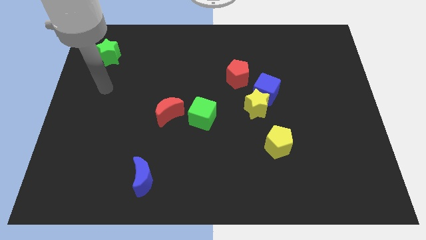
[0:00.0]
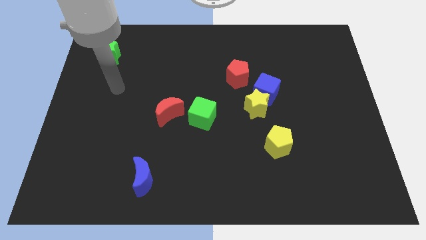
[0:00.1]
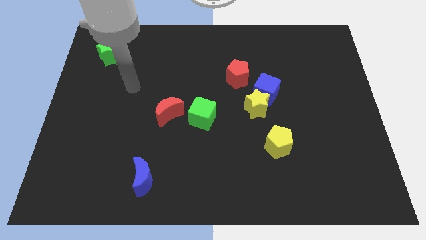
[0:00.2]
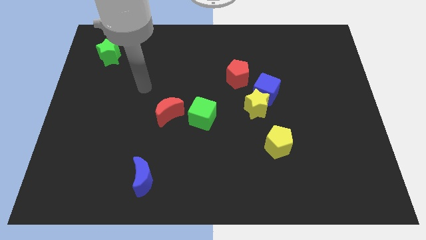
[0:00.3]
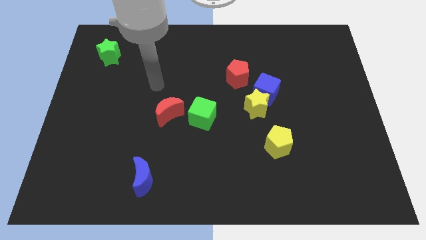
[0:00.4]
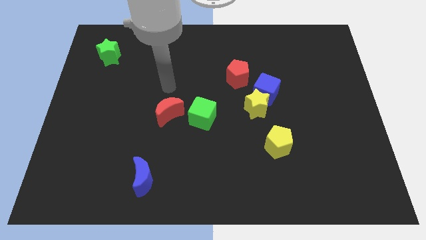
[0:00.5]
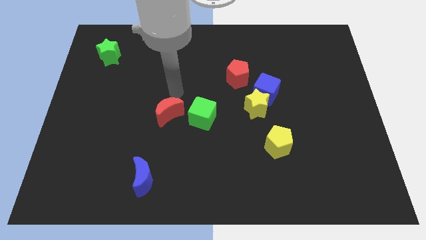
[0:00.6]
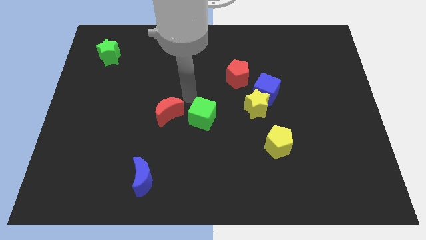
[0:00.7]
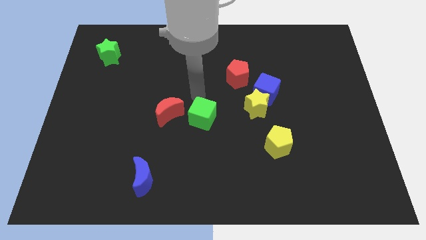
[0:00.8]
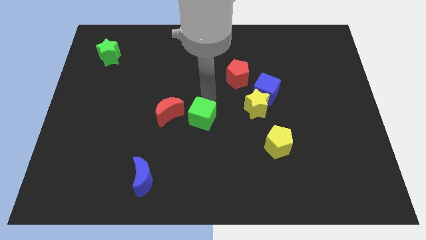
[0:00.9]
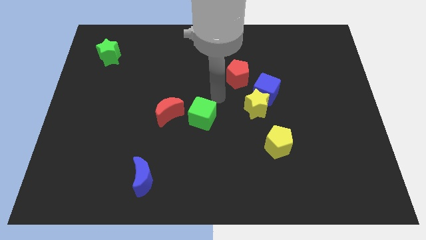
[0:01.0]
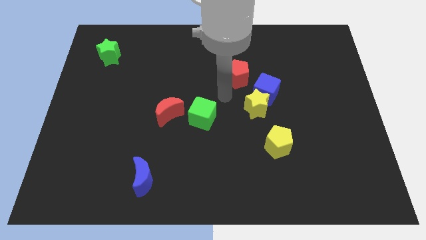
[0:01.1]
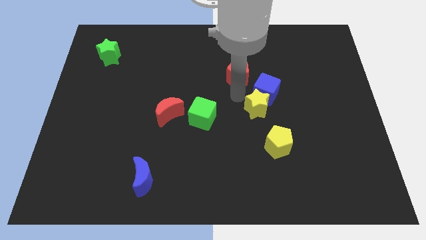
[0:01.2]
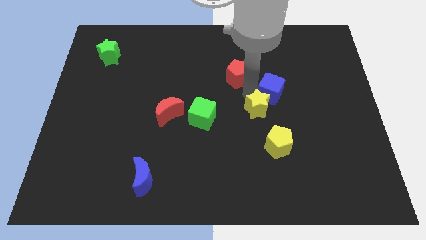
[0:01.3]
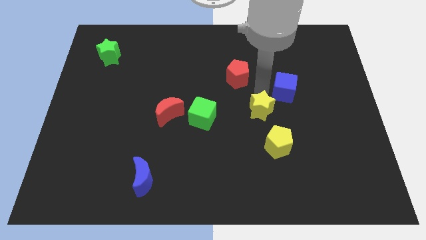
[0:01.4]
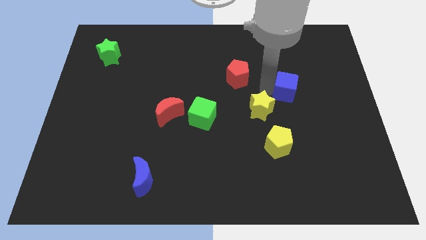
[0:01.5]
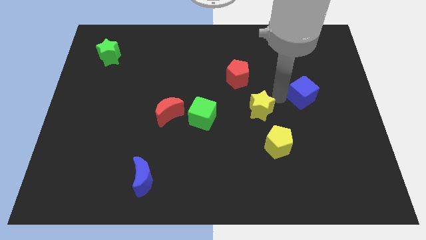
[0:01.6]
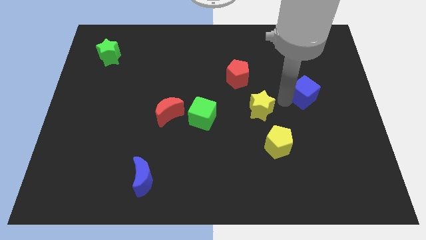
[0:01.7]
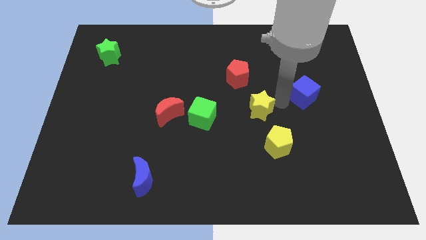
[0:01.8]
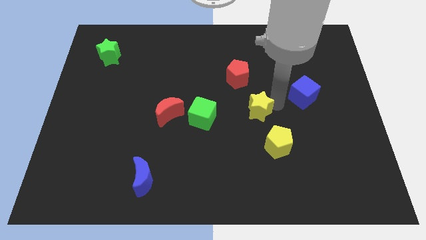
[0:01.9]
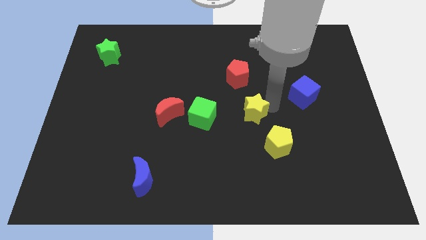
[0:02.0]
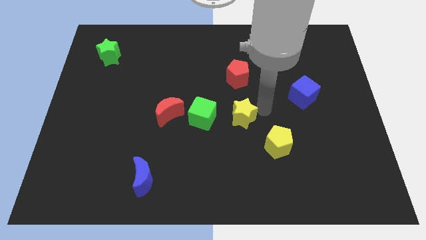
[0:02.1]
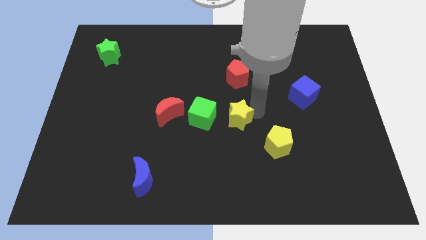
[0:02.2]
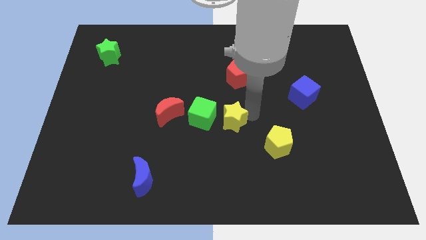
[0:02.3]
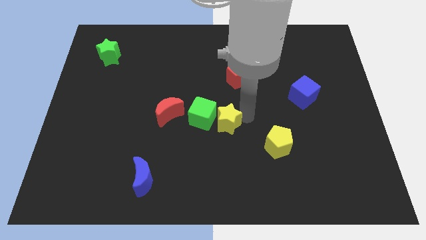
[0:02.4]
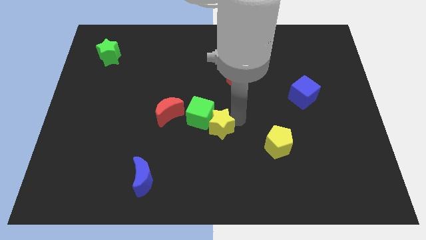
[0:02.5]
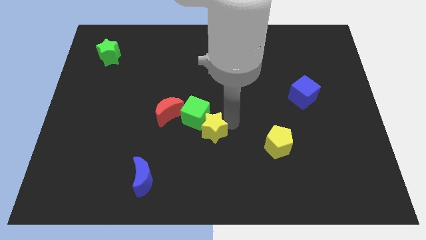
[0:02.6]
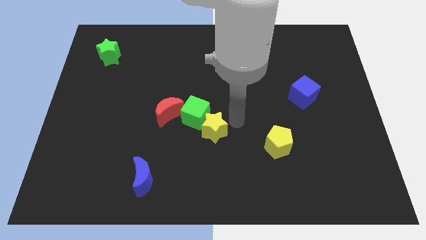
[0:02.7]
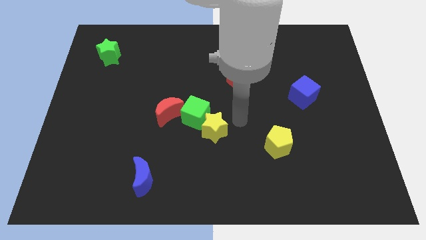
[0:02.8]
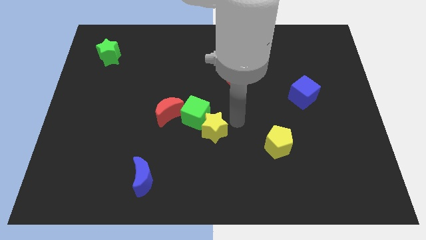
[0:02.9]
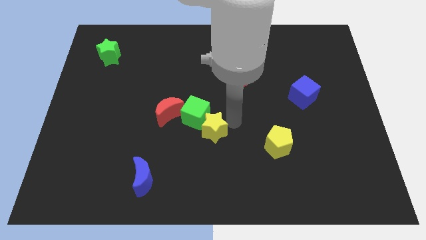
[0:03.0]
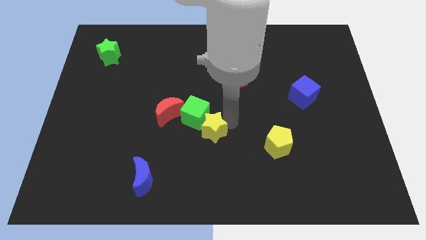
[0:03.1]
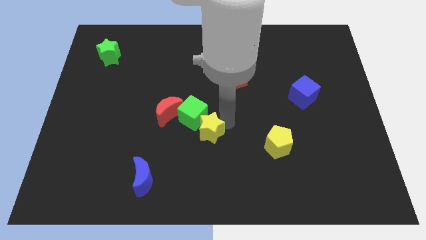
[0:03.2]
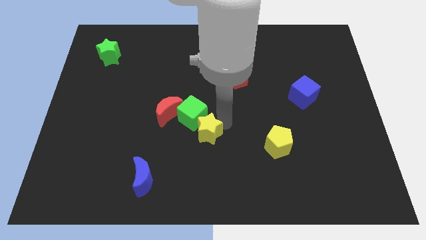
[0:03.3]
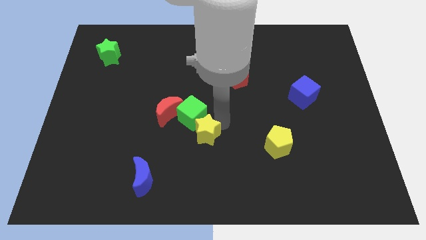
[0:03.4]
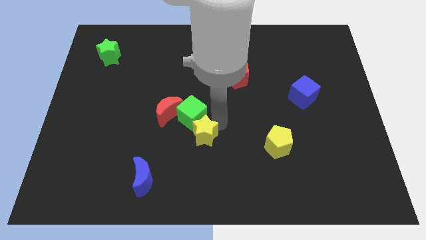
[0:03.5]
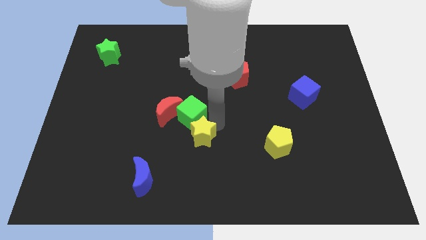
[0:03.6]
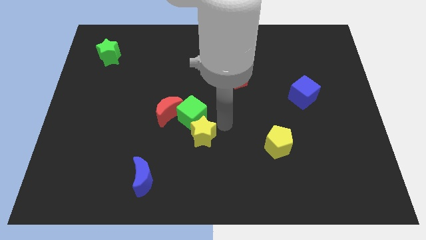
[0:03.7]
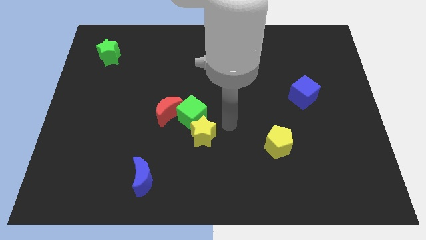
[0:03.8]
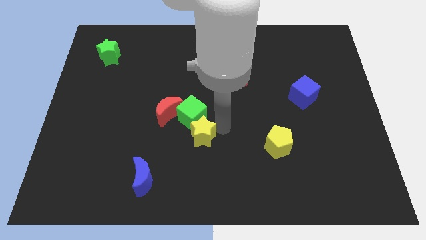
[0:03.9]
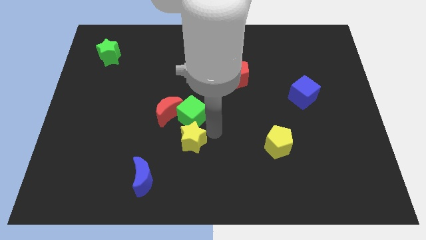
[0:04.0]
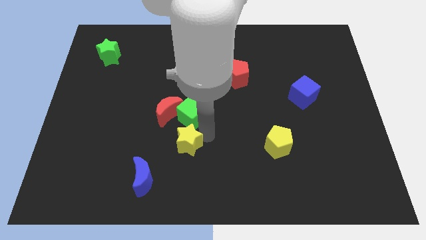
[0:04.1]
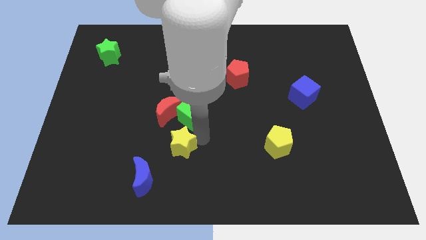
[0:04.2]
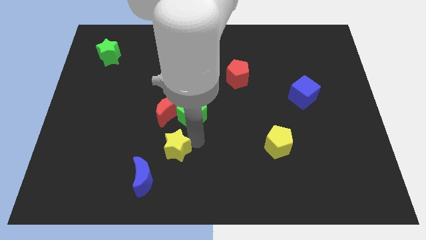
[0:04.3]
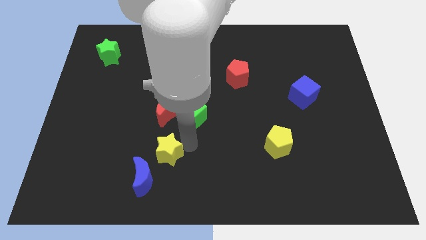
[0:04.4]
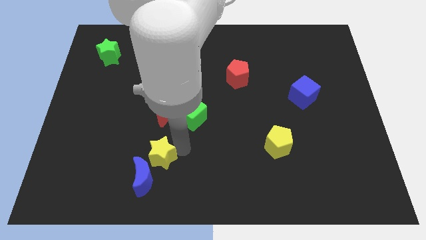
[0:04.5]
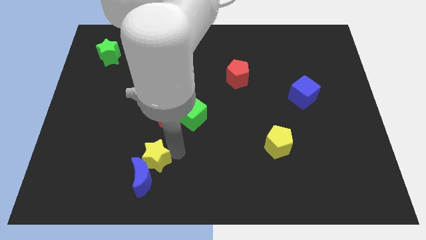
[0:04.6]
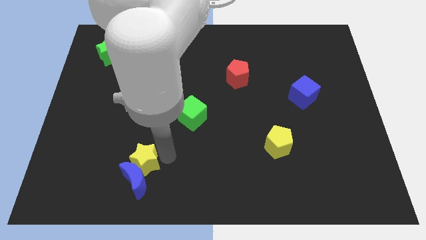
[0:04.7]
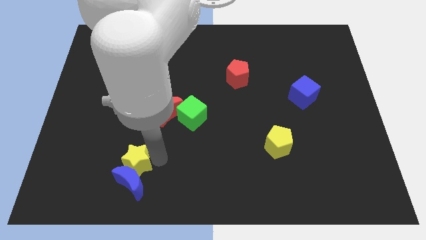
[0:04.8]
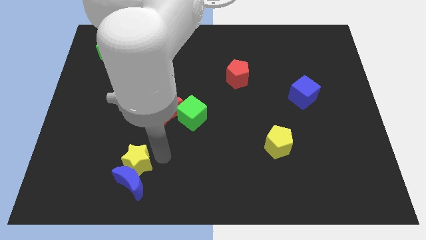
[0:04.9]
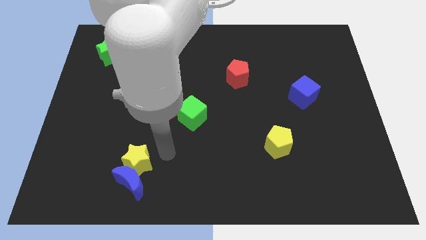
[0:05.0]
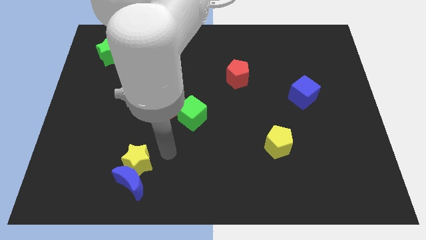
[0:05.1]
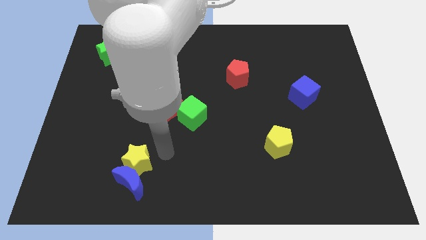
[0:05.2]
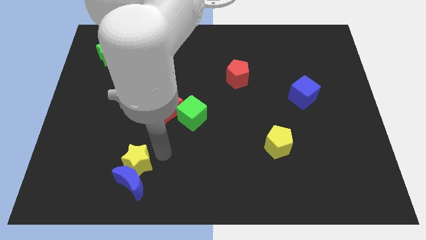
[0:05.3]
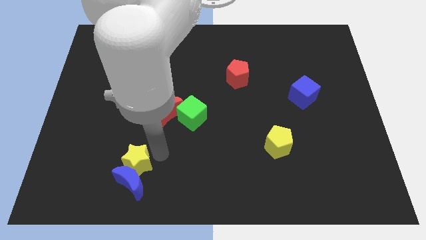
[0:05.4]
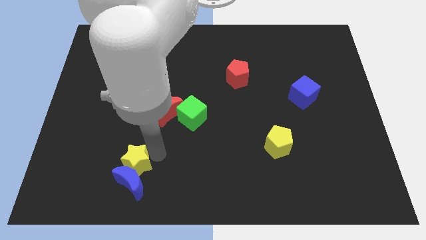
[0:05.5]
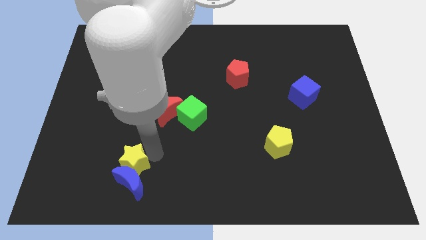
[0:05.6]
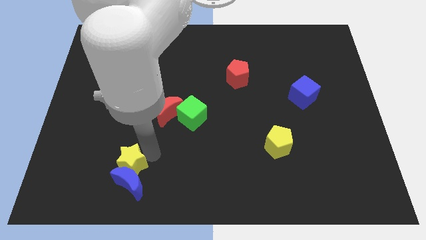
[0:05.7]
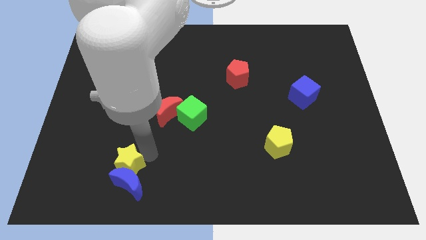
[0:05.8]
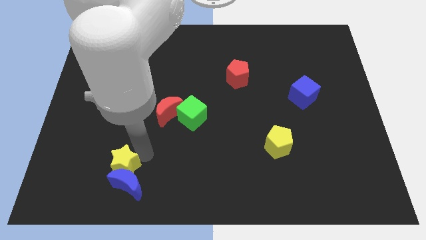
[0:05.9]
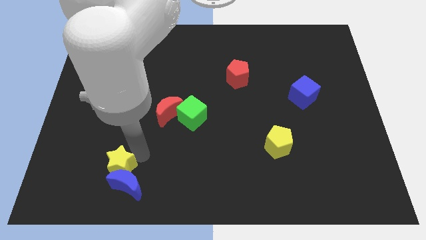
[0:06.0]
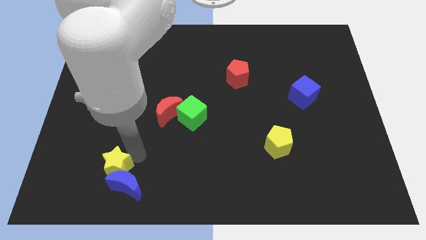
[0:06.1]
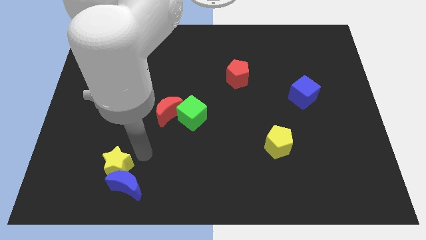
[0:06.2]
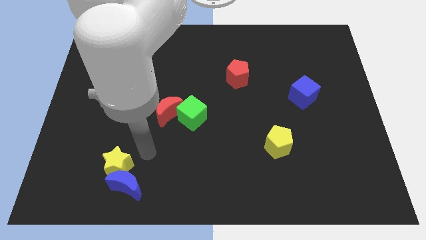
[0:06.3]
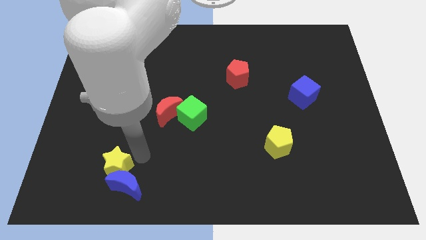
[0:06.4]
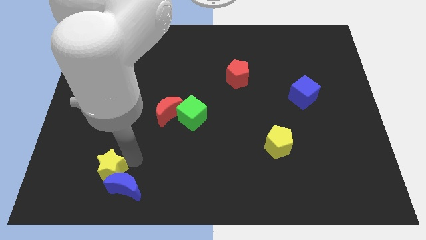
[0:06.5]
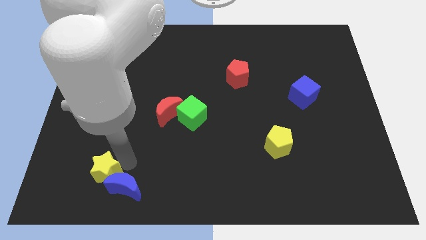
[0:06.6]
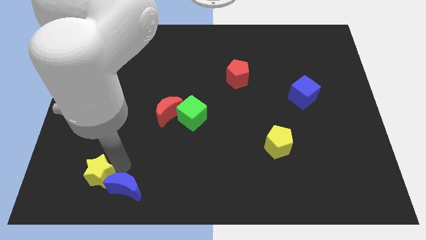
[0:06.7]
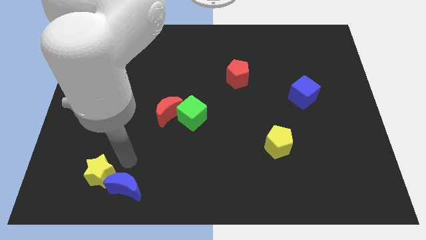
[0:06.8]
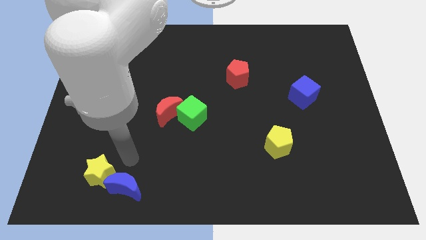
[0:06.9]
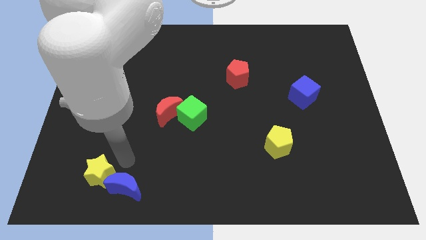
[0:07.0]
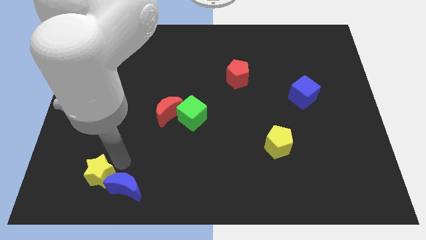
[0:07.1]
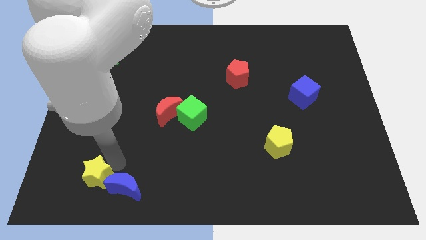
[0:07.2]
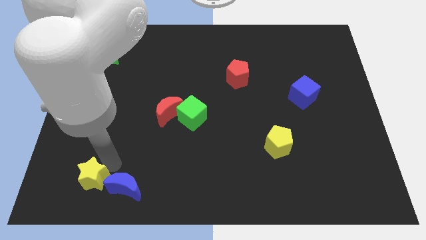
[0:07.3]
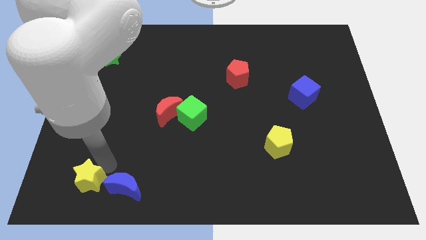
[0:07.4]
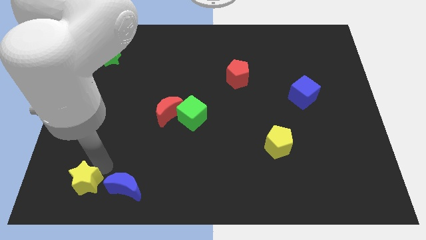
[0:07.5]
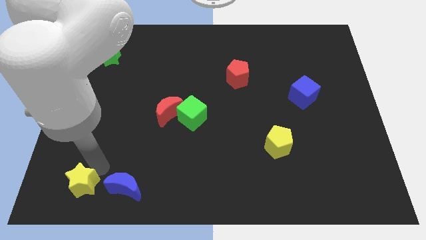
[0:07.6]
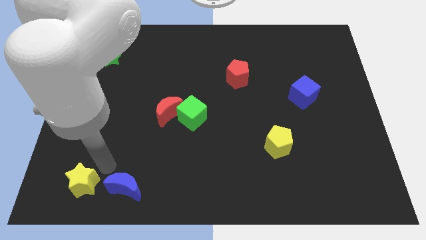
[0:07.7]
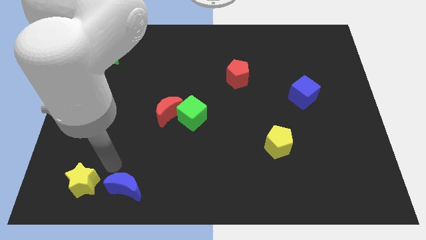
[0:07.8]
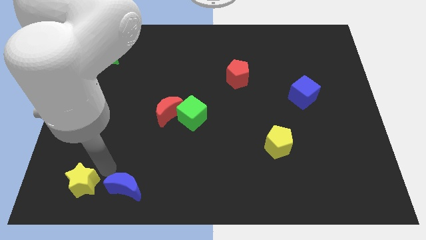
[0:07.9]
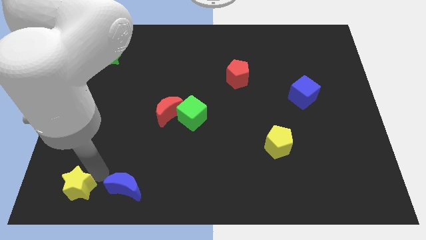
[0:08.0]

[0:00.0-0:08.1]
move the yellow star to the lower left corner
